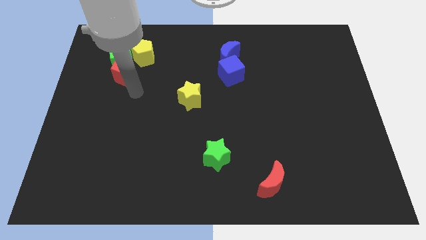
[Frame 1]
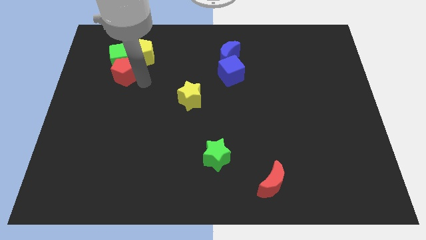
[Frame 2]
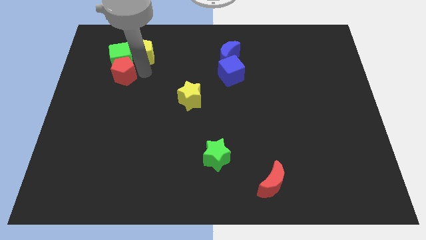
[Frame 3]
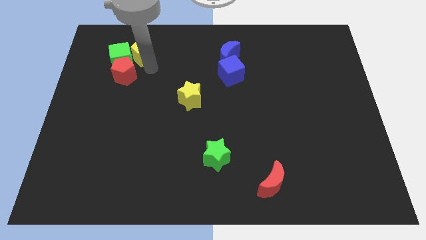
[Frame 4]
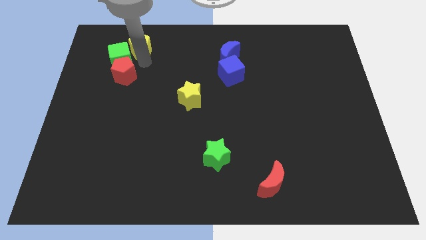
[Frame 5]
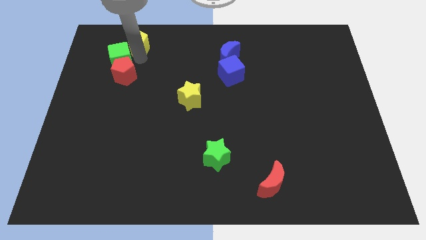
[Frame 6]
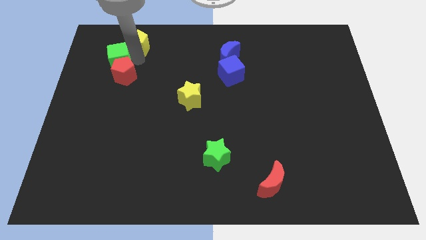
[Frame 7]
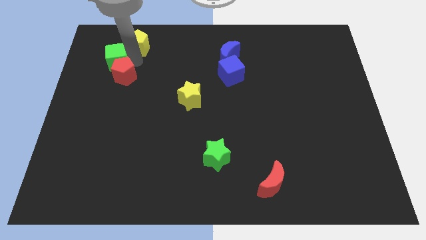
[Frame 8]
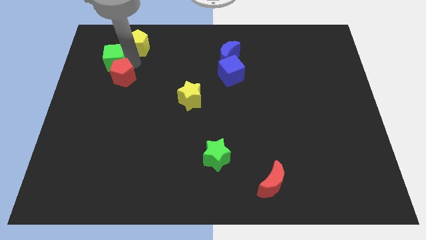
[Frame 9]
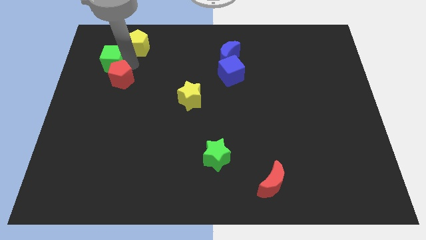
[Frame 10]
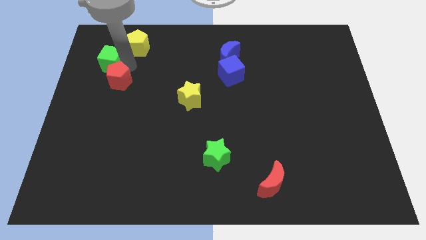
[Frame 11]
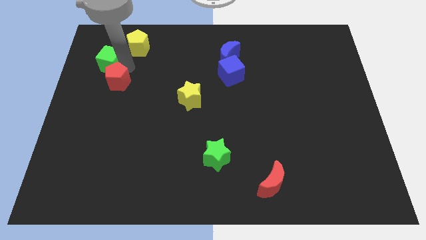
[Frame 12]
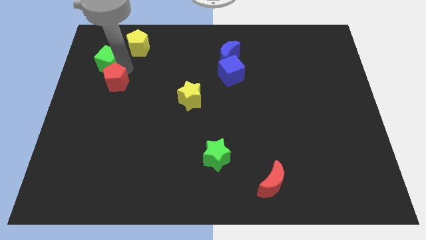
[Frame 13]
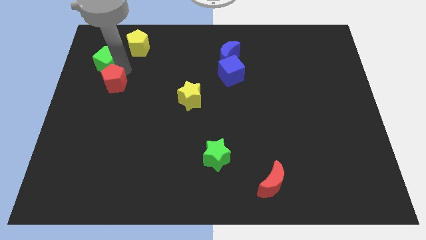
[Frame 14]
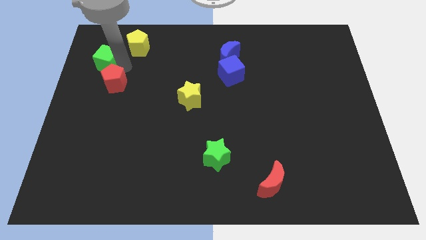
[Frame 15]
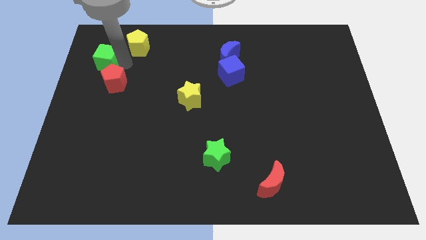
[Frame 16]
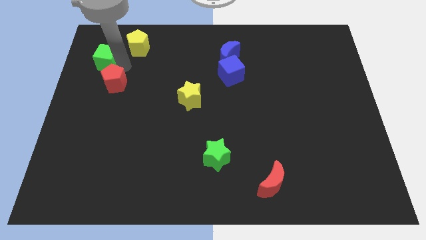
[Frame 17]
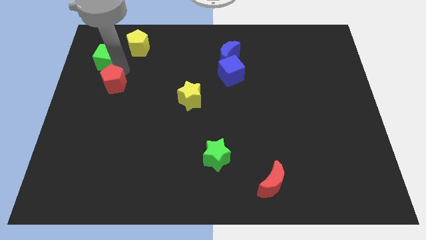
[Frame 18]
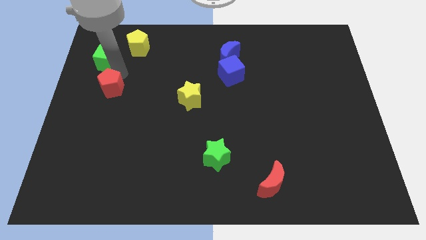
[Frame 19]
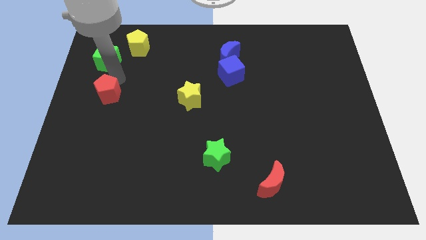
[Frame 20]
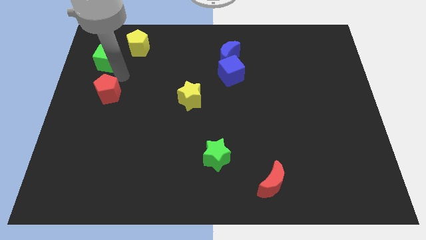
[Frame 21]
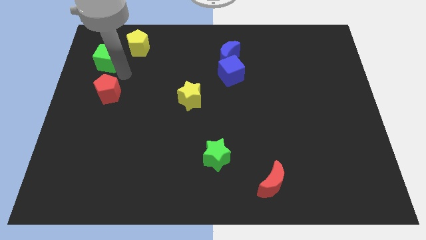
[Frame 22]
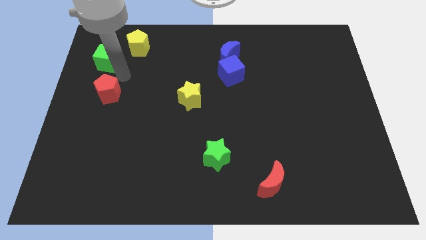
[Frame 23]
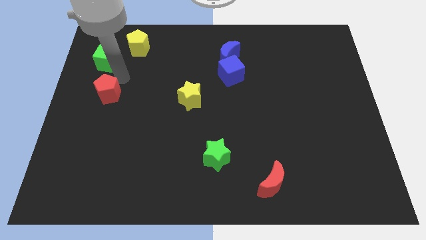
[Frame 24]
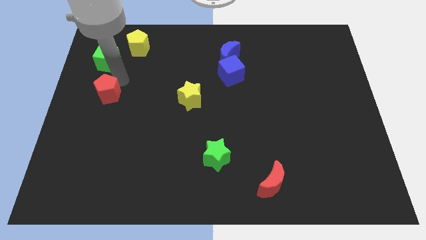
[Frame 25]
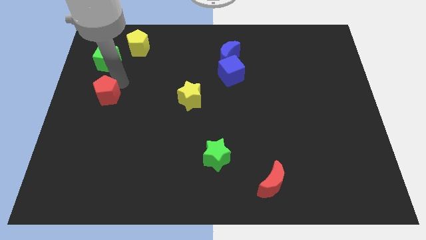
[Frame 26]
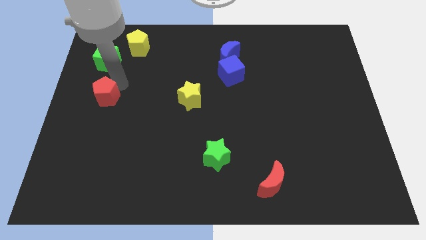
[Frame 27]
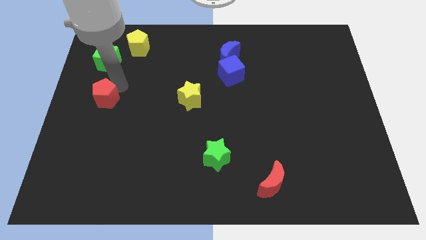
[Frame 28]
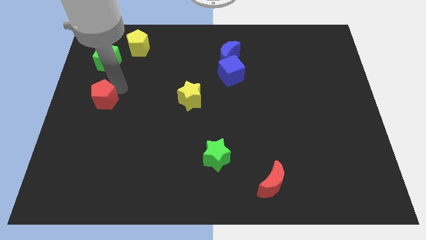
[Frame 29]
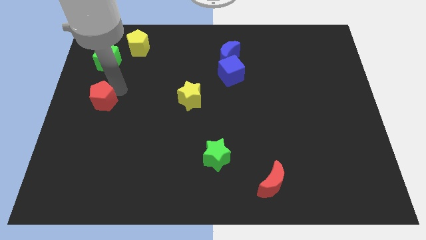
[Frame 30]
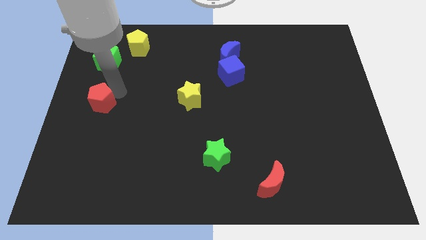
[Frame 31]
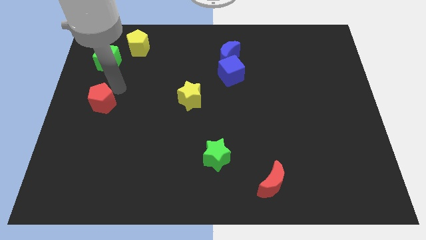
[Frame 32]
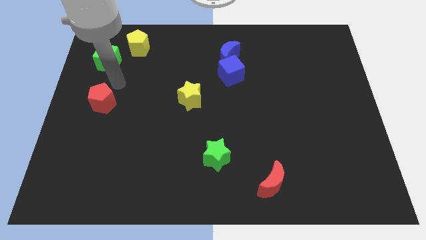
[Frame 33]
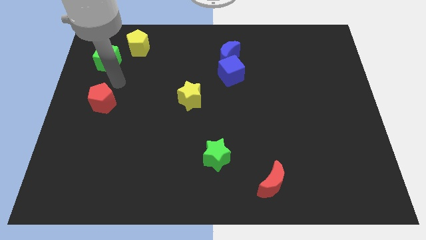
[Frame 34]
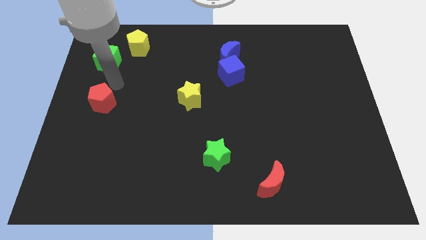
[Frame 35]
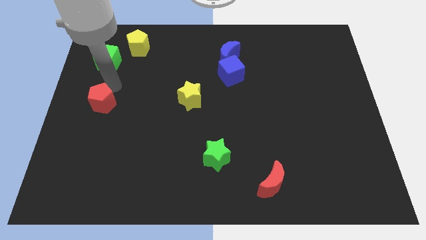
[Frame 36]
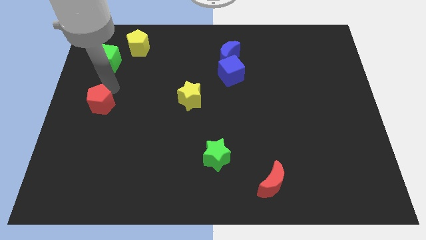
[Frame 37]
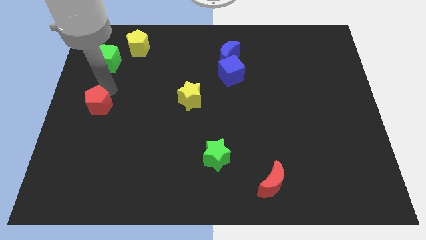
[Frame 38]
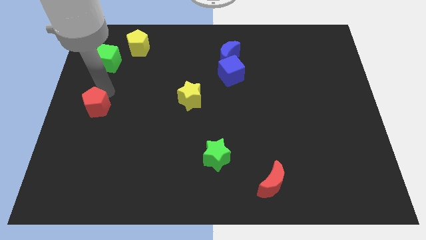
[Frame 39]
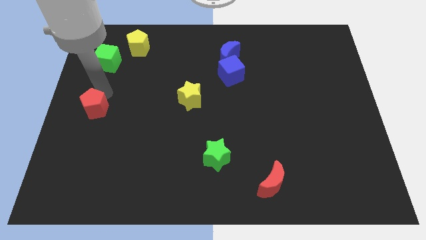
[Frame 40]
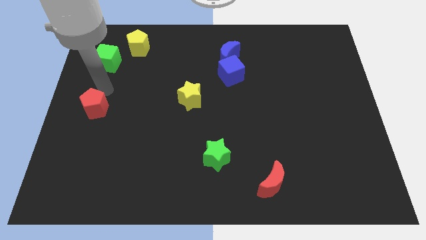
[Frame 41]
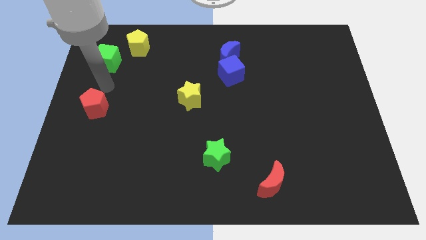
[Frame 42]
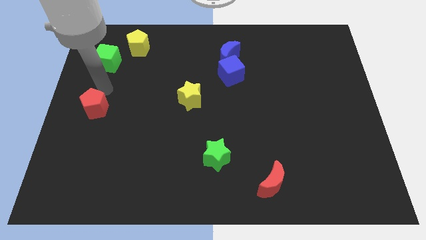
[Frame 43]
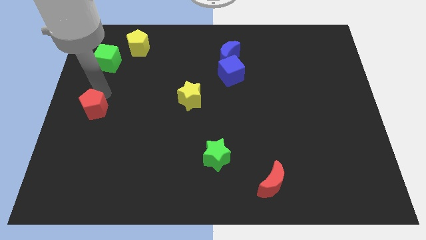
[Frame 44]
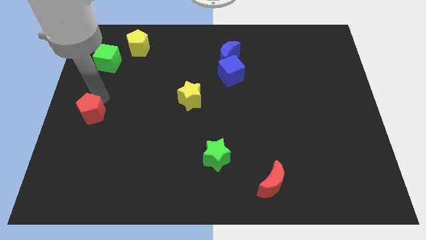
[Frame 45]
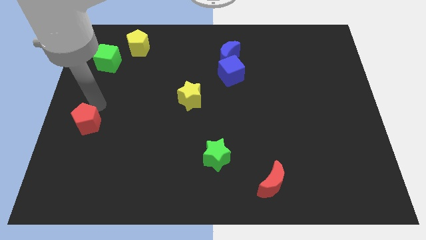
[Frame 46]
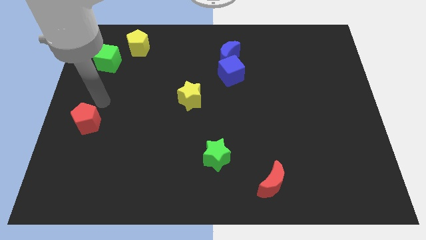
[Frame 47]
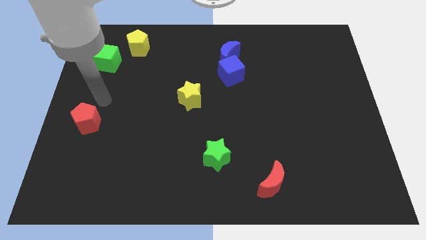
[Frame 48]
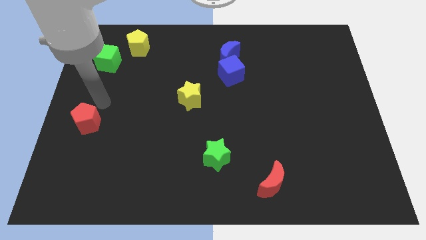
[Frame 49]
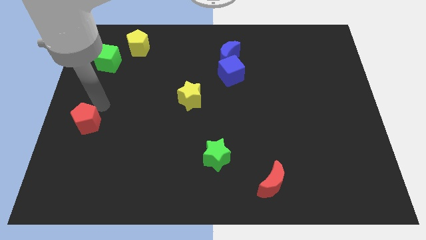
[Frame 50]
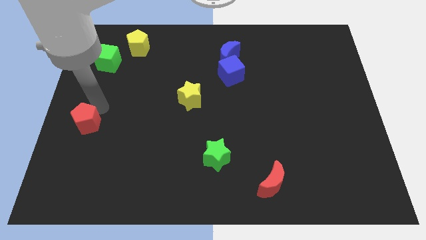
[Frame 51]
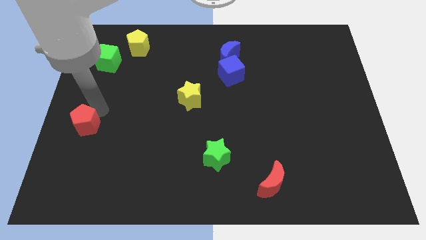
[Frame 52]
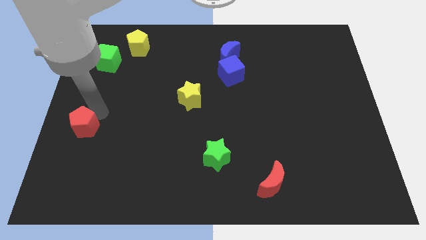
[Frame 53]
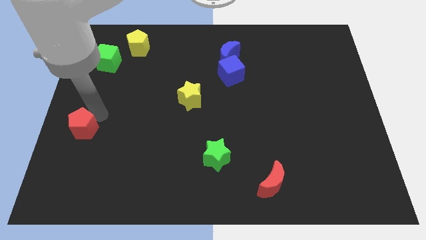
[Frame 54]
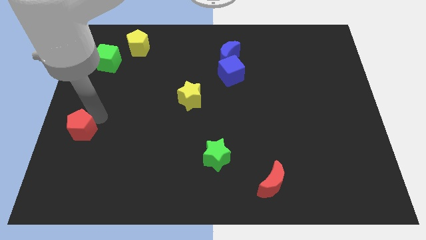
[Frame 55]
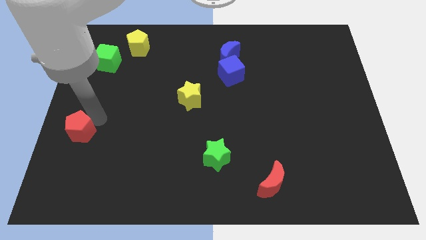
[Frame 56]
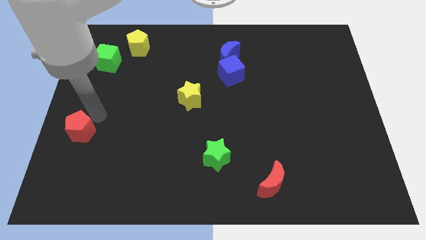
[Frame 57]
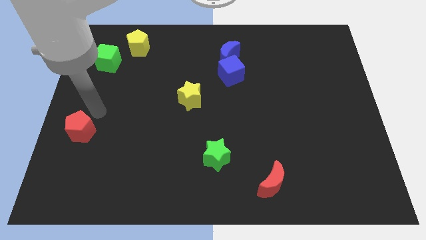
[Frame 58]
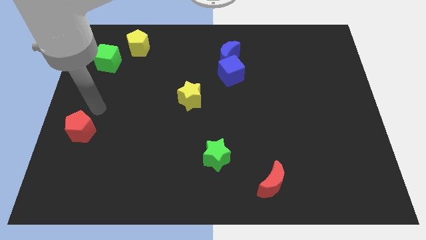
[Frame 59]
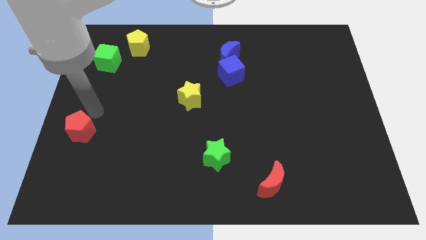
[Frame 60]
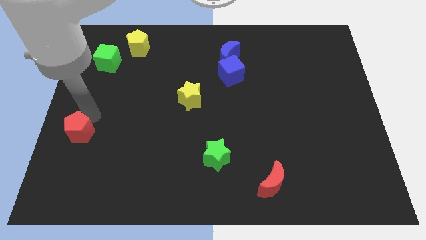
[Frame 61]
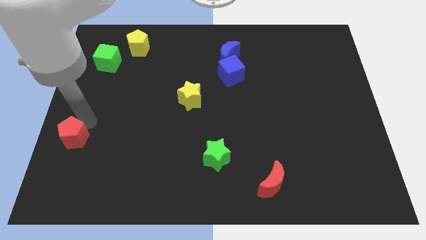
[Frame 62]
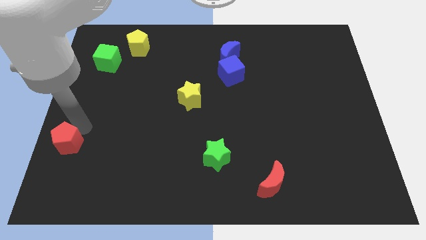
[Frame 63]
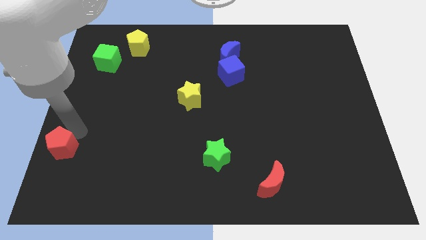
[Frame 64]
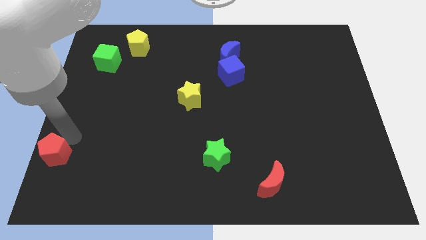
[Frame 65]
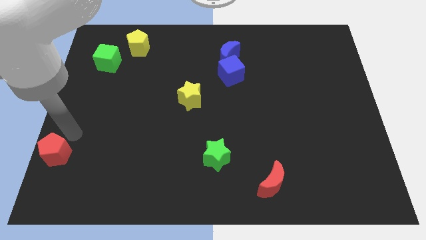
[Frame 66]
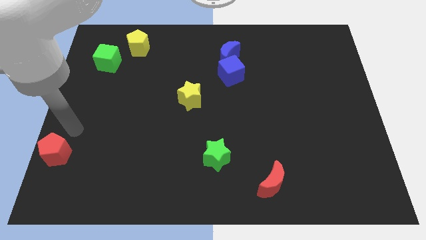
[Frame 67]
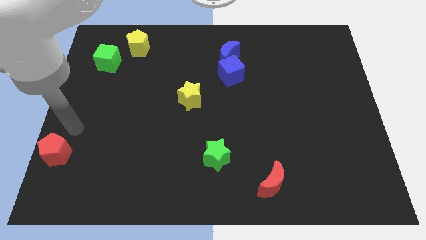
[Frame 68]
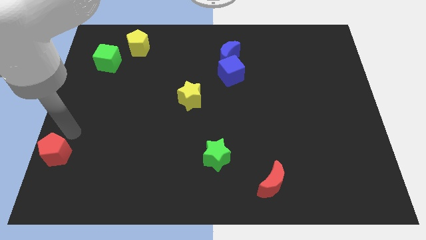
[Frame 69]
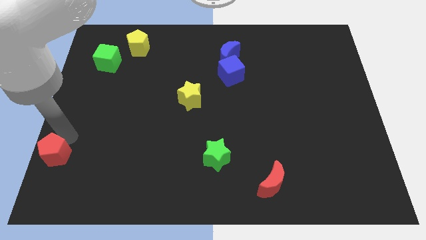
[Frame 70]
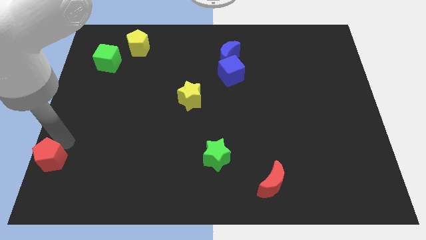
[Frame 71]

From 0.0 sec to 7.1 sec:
move the red pentagon to the bottom left
